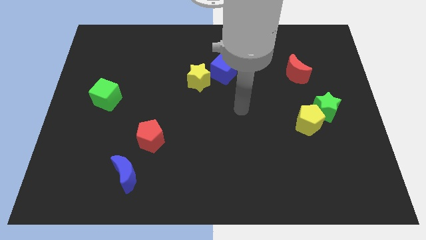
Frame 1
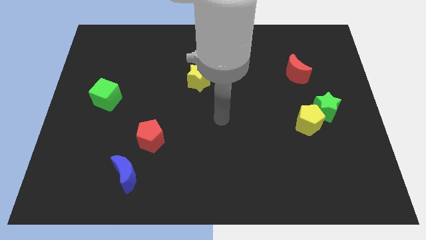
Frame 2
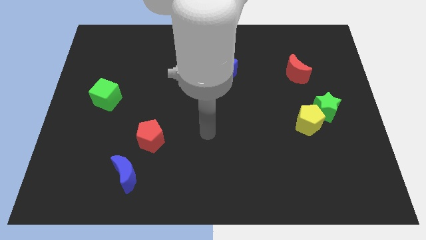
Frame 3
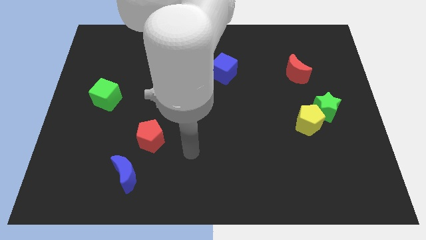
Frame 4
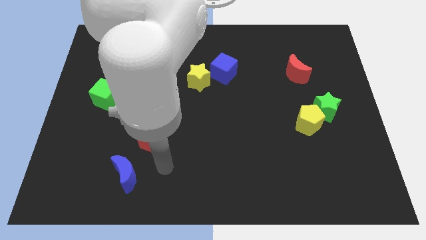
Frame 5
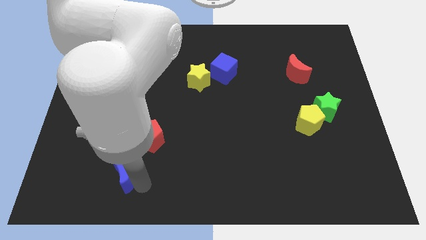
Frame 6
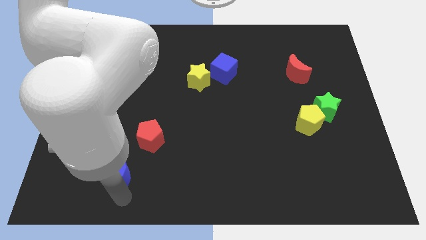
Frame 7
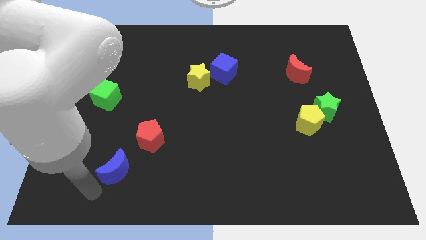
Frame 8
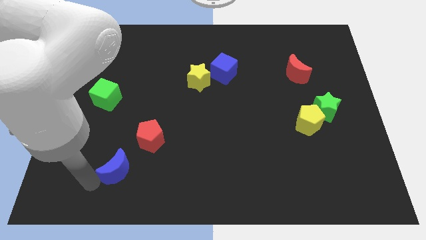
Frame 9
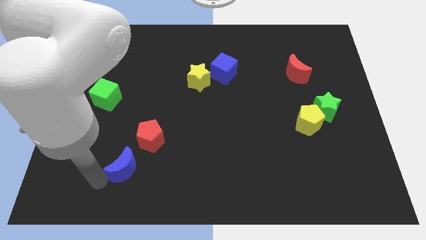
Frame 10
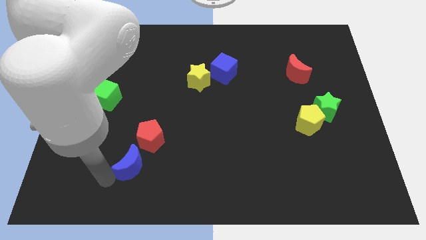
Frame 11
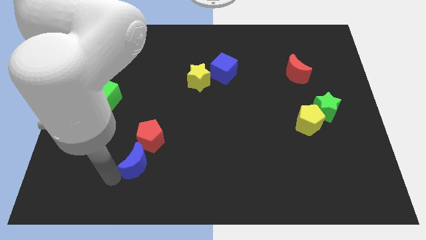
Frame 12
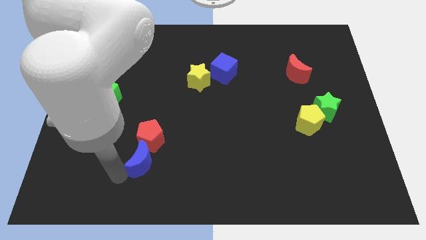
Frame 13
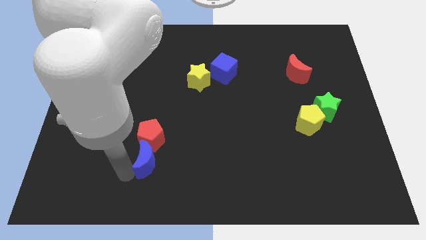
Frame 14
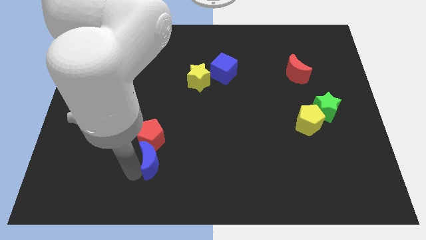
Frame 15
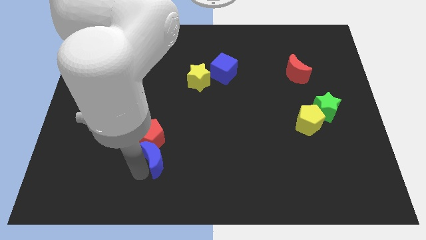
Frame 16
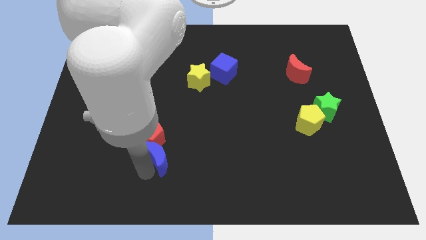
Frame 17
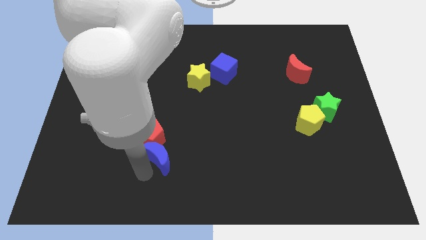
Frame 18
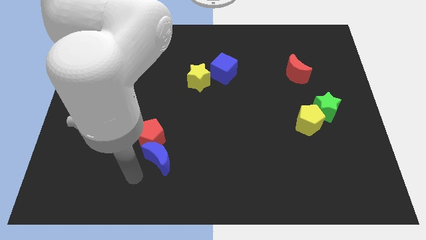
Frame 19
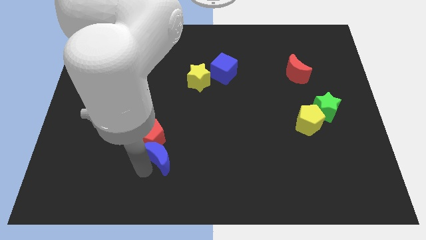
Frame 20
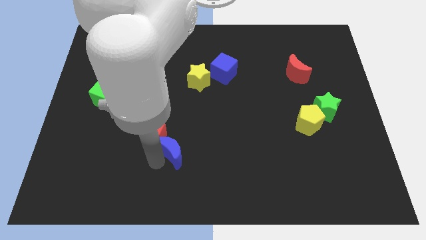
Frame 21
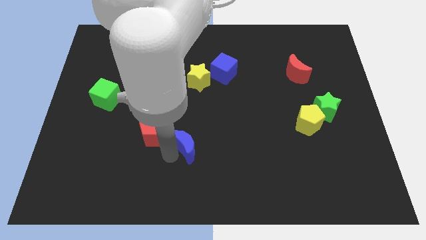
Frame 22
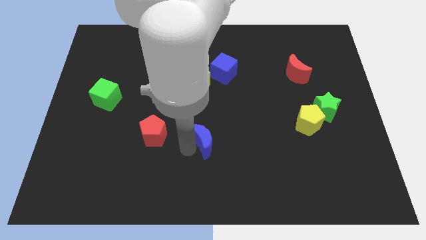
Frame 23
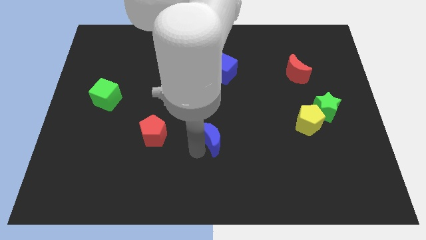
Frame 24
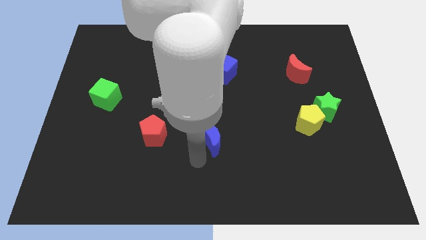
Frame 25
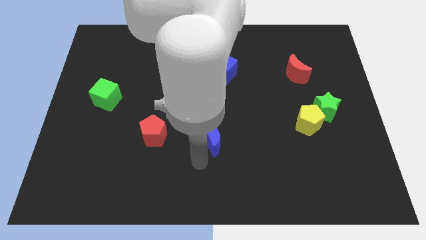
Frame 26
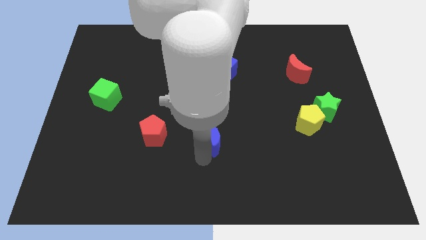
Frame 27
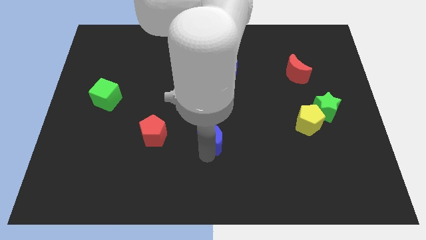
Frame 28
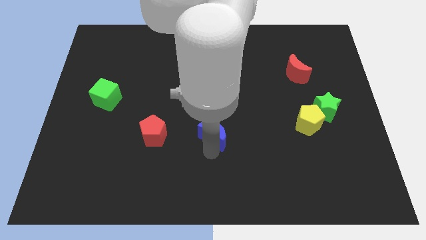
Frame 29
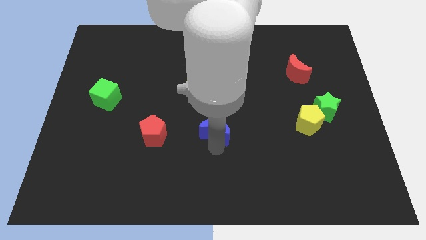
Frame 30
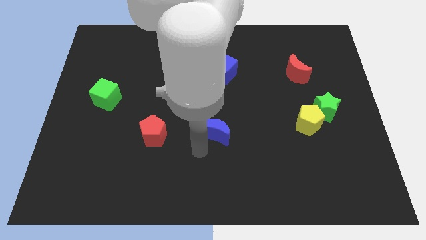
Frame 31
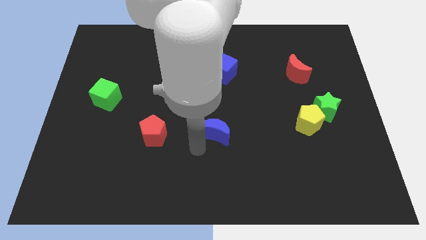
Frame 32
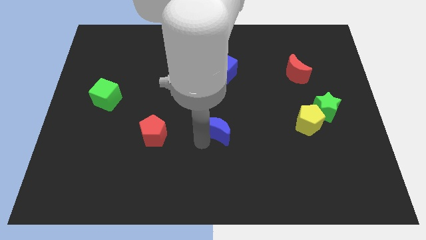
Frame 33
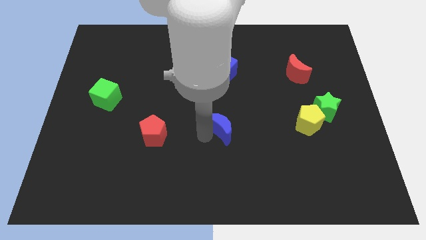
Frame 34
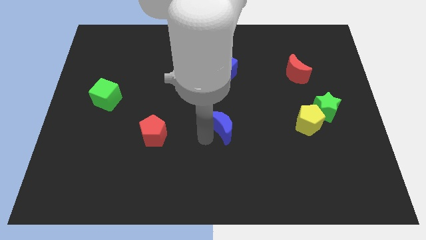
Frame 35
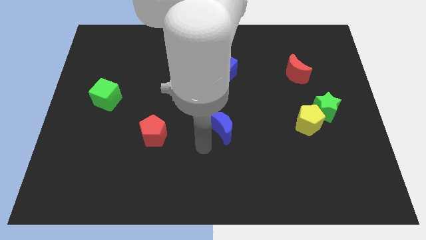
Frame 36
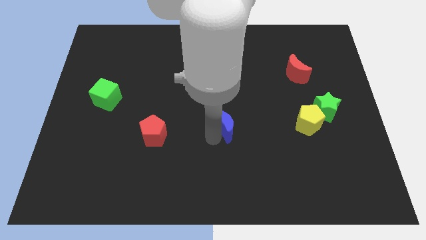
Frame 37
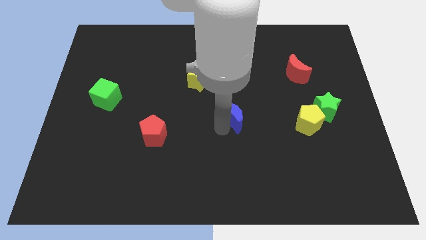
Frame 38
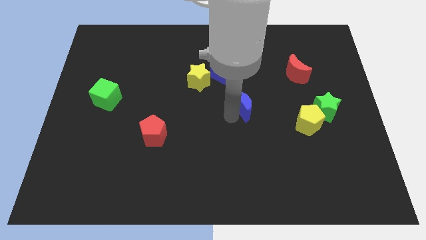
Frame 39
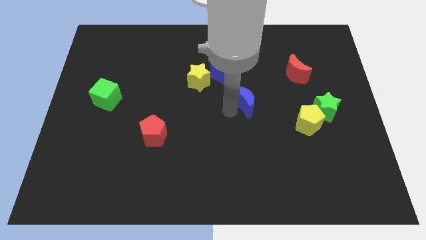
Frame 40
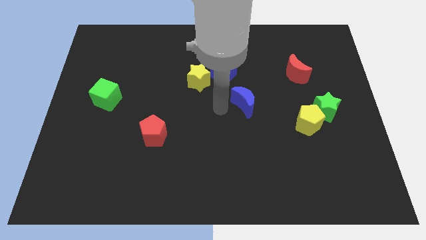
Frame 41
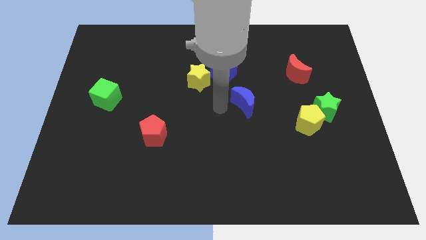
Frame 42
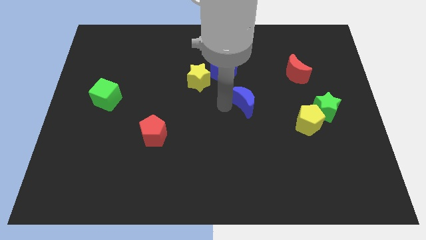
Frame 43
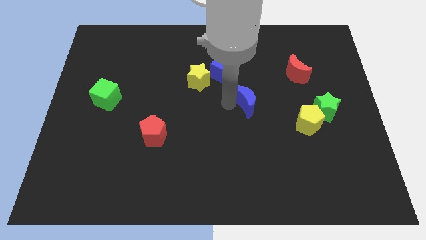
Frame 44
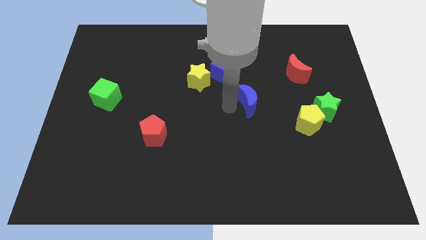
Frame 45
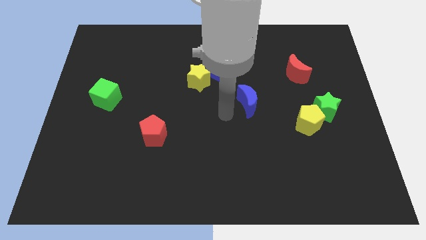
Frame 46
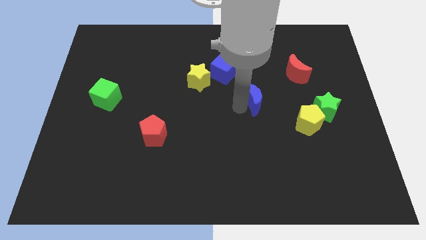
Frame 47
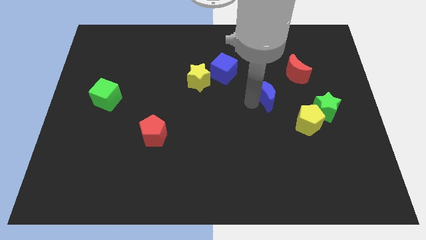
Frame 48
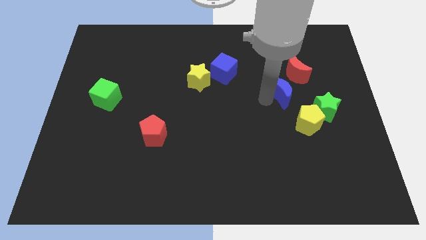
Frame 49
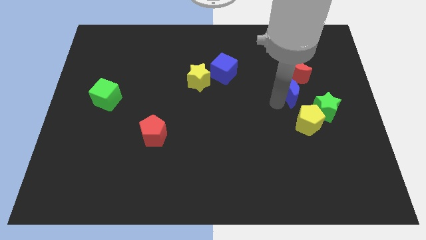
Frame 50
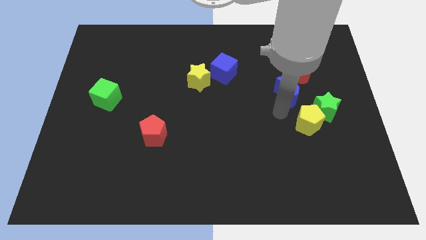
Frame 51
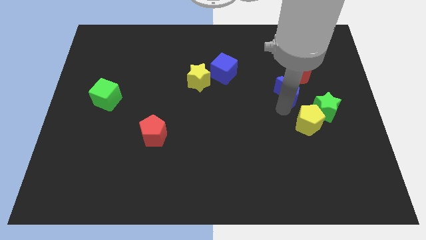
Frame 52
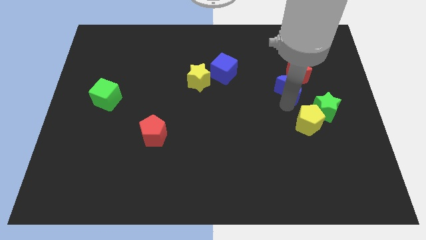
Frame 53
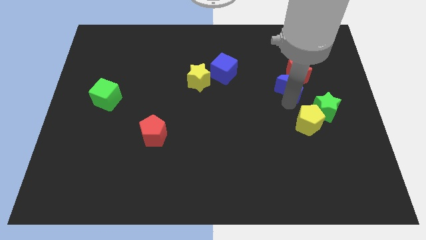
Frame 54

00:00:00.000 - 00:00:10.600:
put the blue moon to the red moon

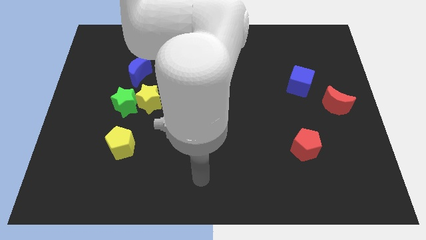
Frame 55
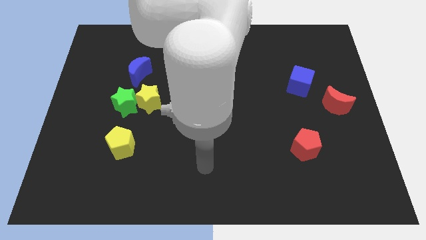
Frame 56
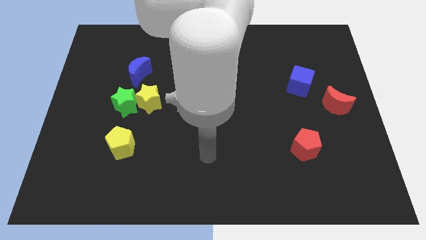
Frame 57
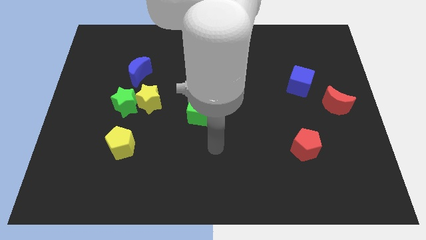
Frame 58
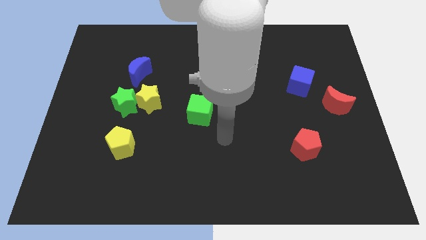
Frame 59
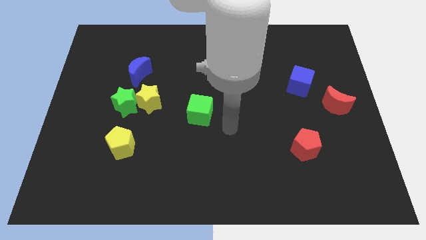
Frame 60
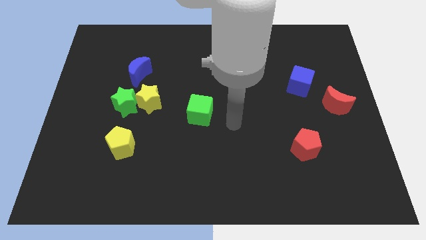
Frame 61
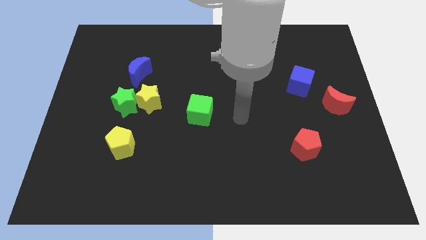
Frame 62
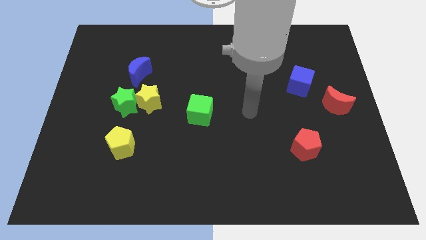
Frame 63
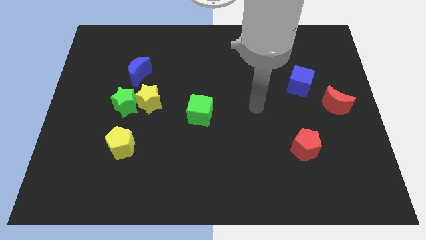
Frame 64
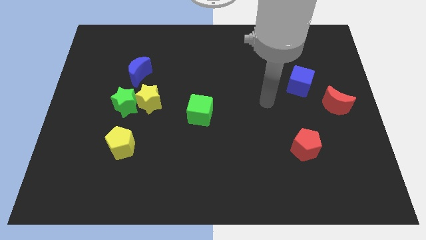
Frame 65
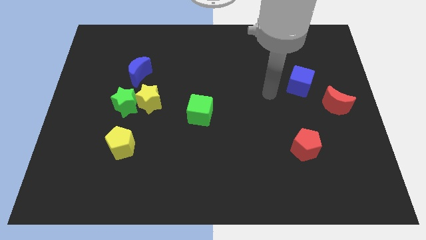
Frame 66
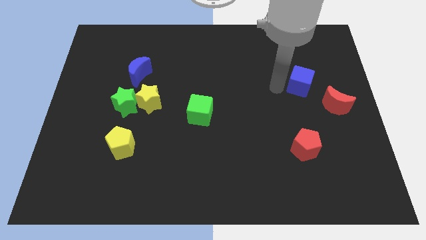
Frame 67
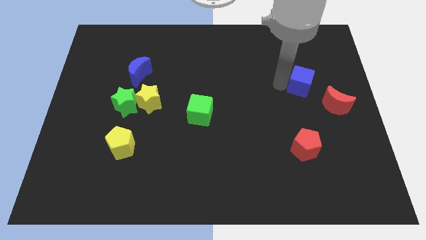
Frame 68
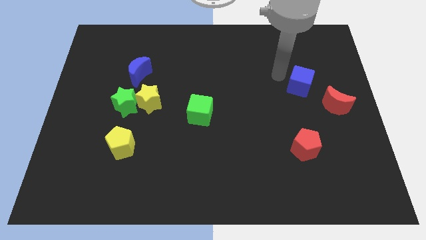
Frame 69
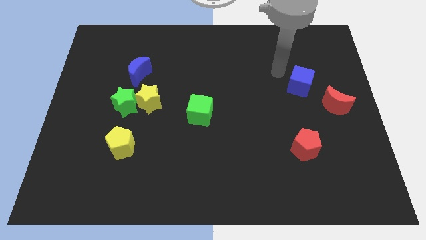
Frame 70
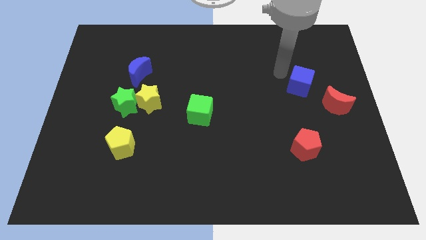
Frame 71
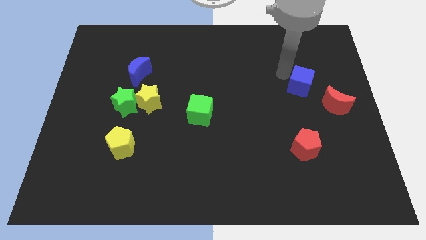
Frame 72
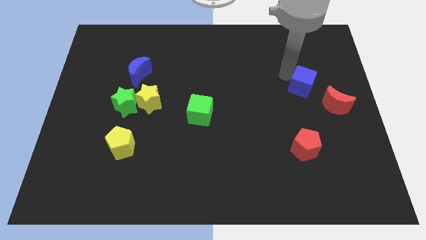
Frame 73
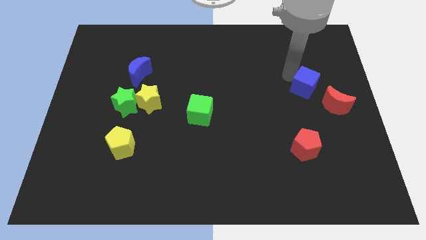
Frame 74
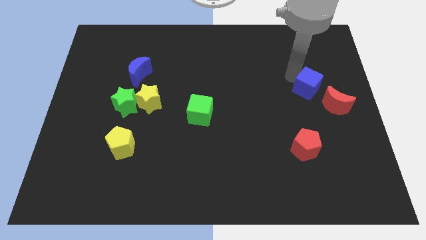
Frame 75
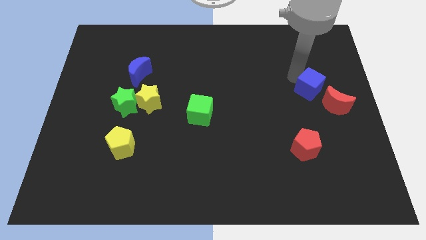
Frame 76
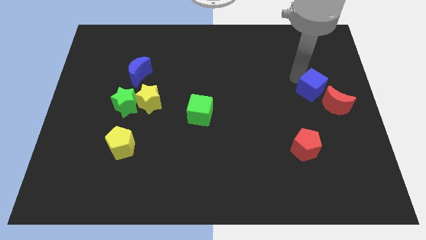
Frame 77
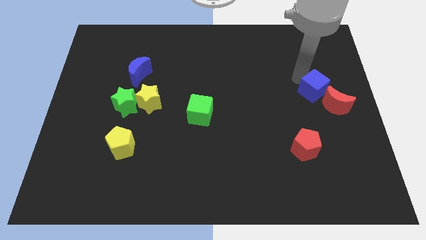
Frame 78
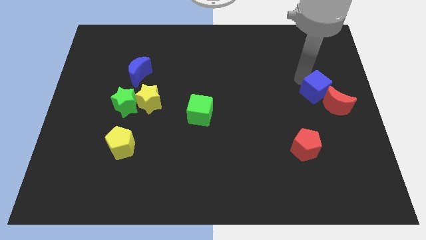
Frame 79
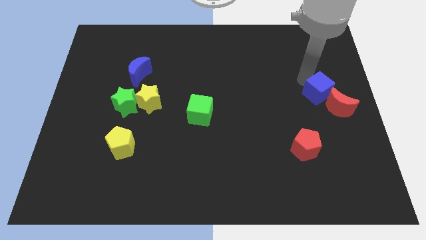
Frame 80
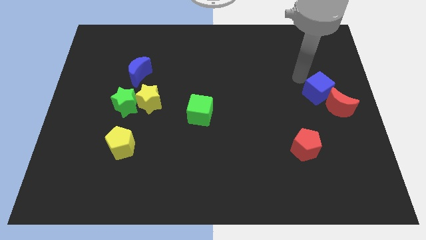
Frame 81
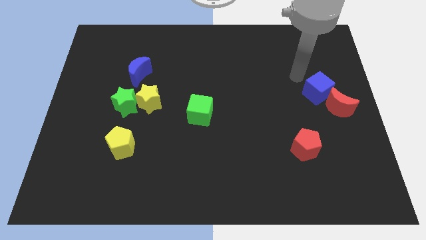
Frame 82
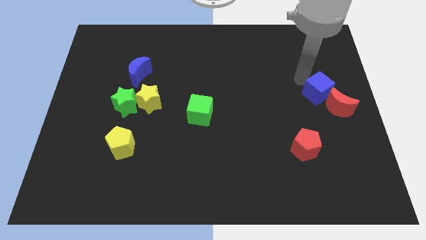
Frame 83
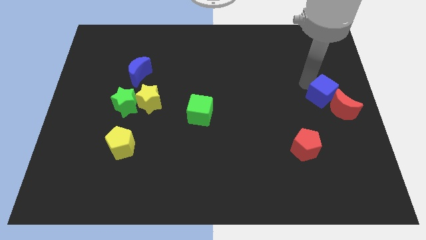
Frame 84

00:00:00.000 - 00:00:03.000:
put the blue cube towards the red moon
